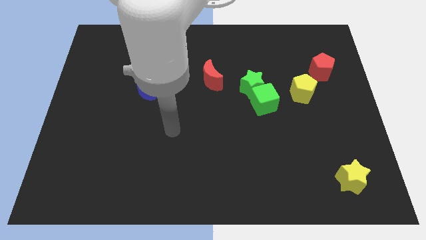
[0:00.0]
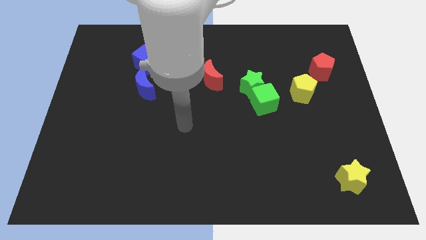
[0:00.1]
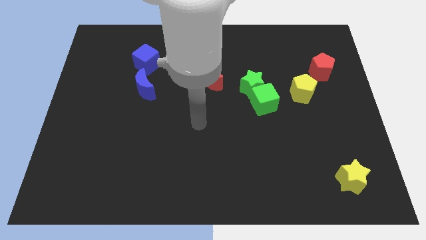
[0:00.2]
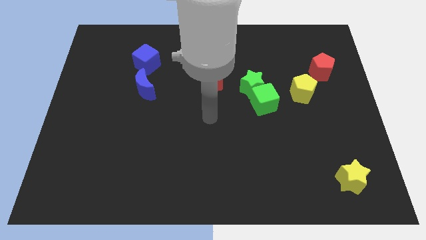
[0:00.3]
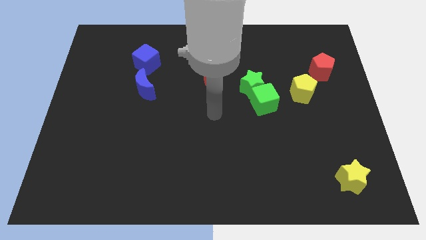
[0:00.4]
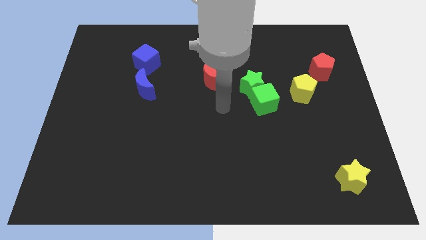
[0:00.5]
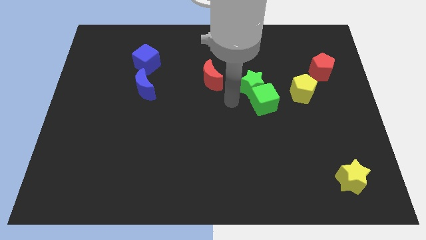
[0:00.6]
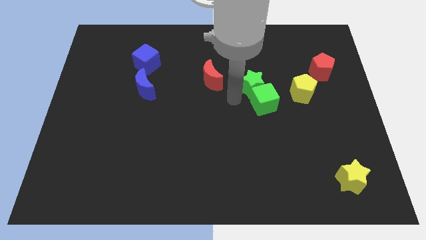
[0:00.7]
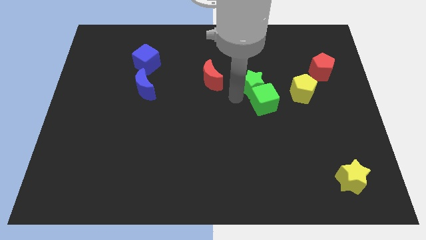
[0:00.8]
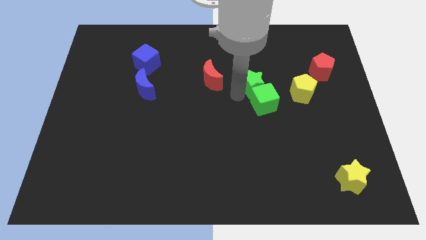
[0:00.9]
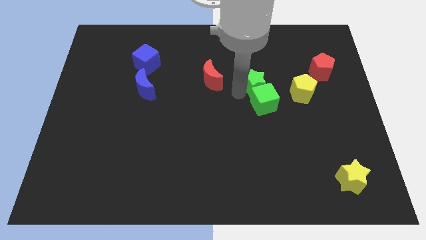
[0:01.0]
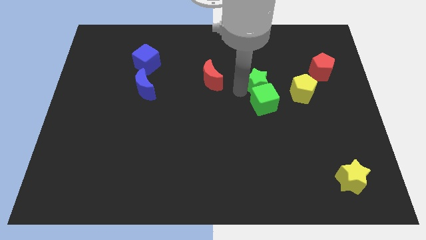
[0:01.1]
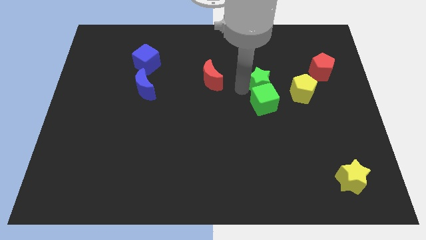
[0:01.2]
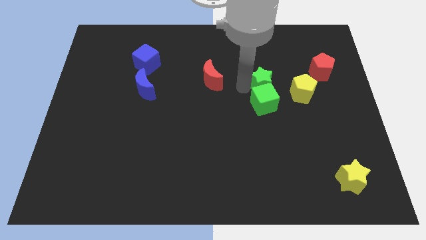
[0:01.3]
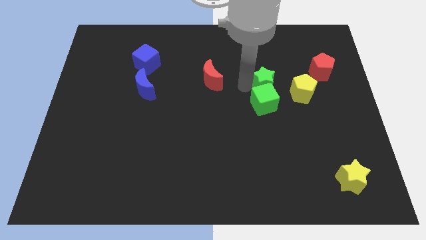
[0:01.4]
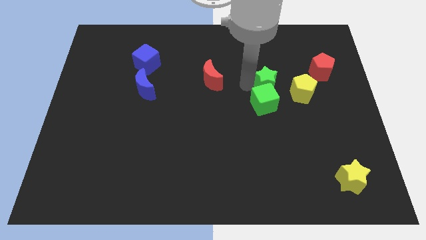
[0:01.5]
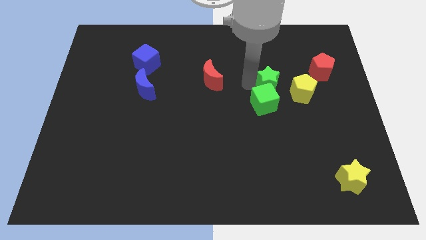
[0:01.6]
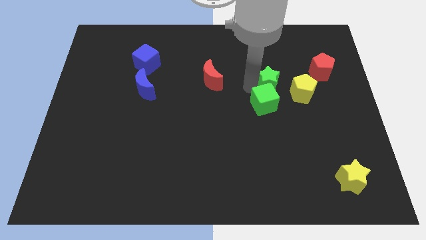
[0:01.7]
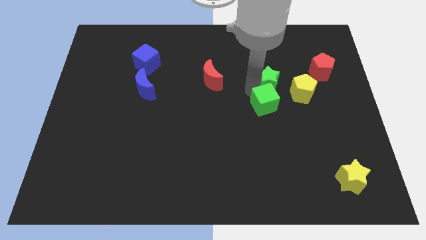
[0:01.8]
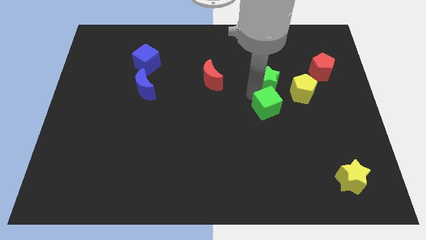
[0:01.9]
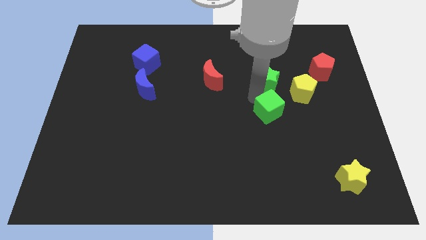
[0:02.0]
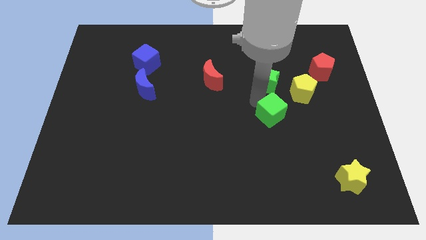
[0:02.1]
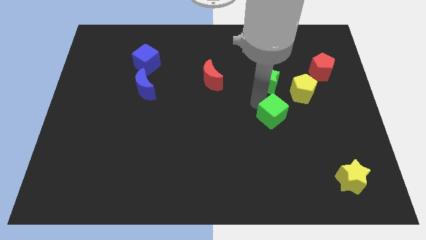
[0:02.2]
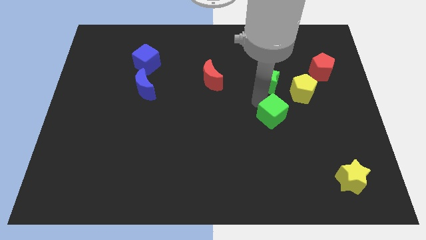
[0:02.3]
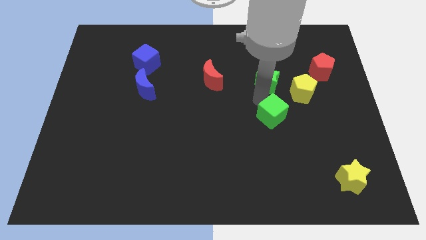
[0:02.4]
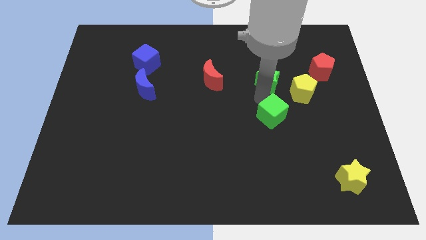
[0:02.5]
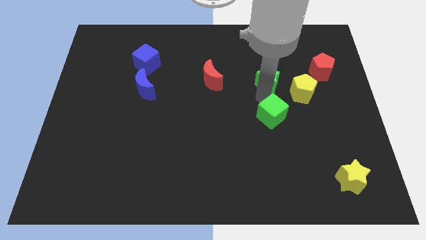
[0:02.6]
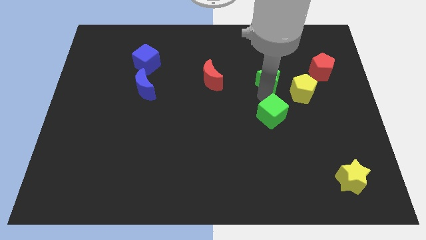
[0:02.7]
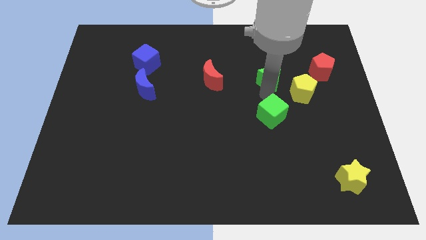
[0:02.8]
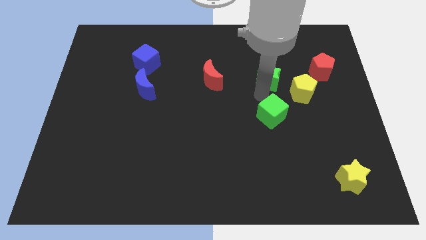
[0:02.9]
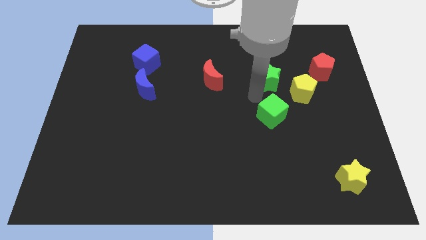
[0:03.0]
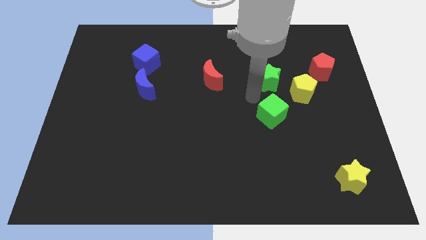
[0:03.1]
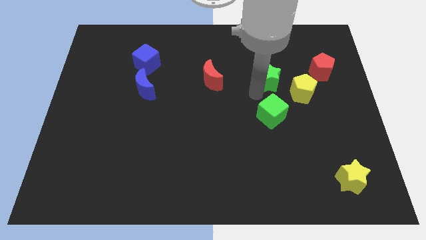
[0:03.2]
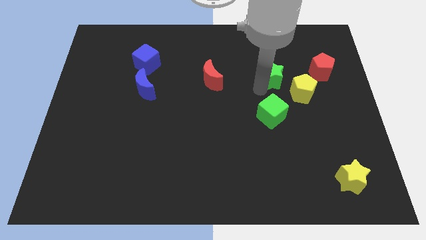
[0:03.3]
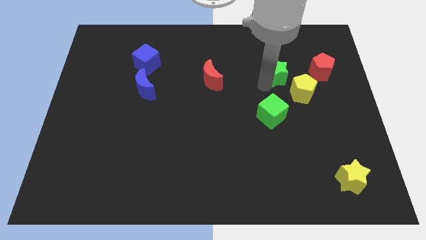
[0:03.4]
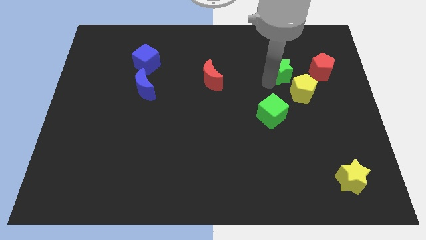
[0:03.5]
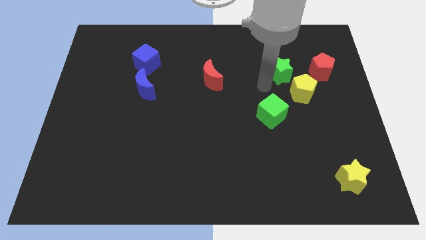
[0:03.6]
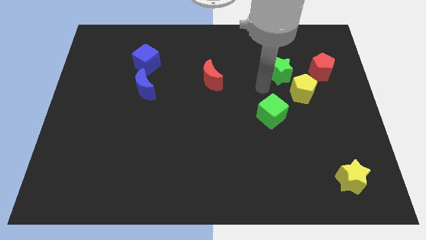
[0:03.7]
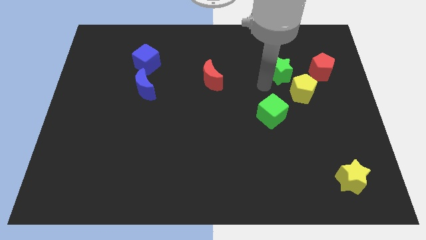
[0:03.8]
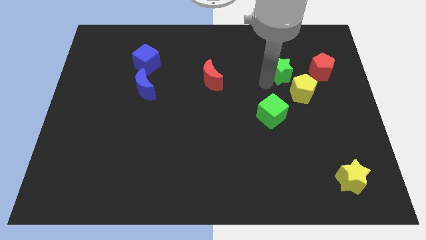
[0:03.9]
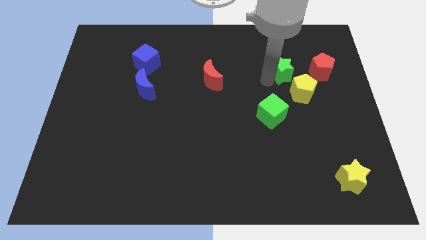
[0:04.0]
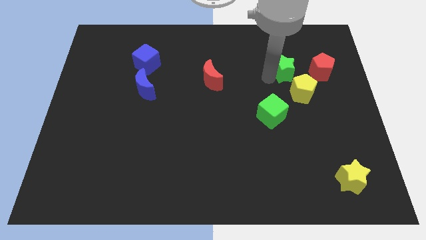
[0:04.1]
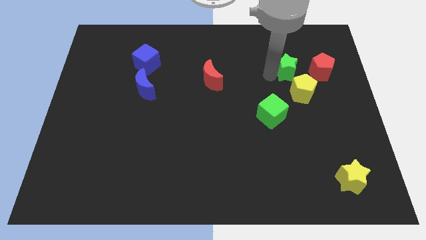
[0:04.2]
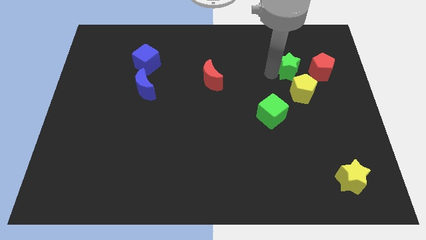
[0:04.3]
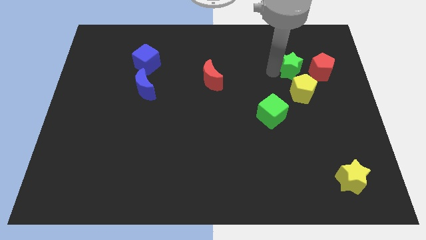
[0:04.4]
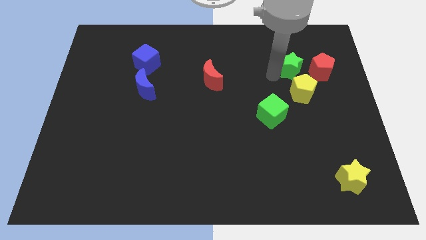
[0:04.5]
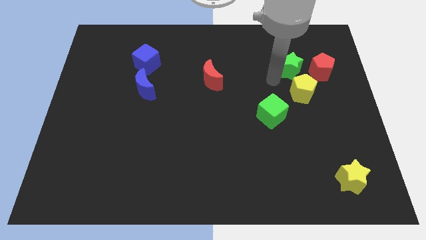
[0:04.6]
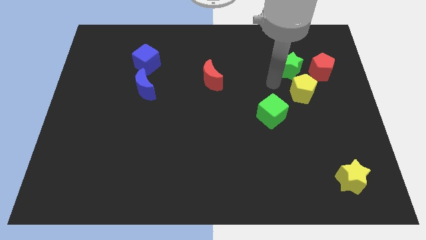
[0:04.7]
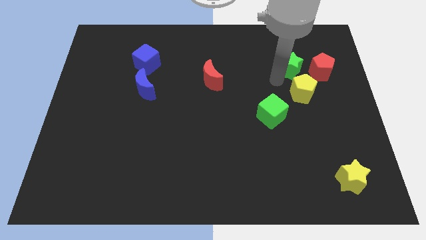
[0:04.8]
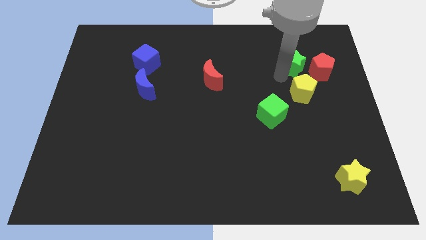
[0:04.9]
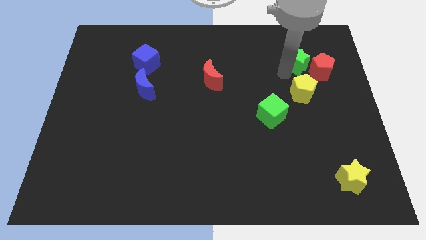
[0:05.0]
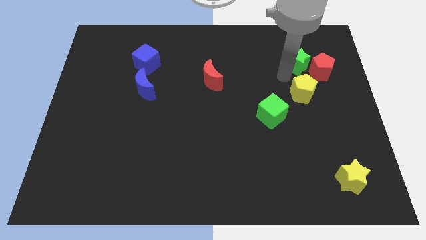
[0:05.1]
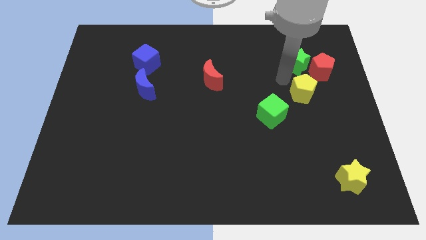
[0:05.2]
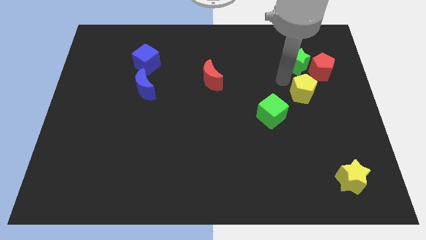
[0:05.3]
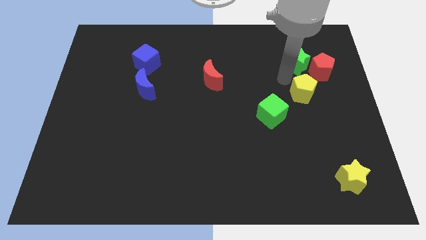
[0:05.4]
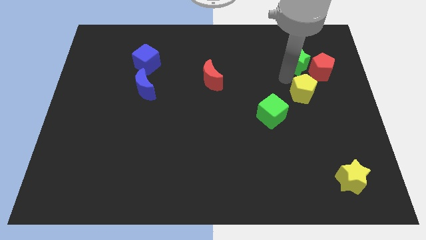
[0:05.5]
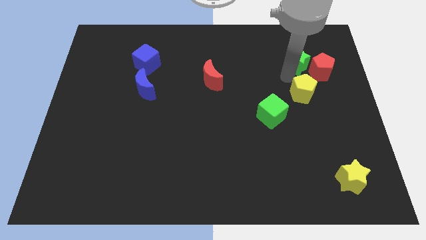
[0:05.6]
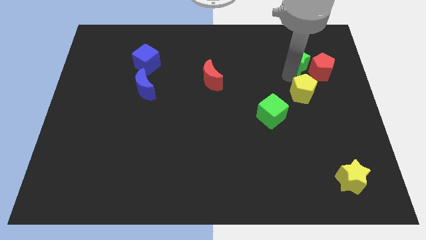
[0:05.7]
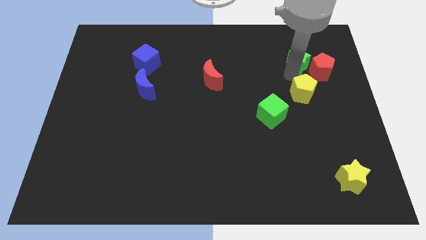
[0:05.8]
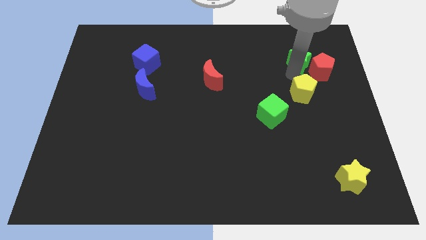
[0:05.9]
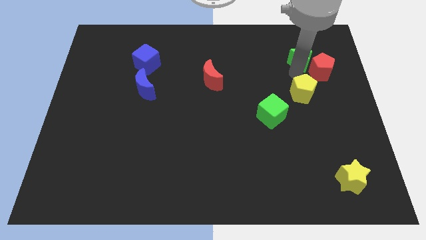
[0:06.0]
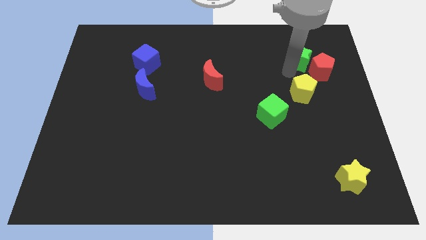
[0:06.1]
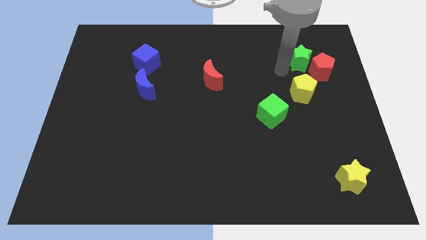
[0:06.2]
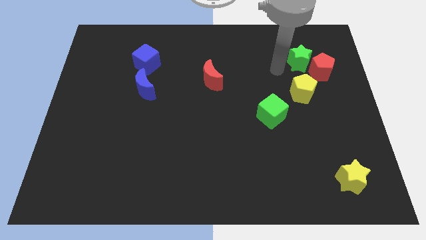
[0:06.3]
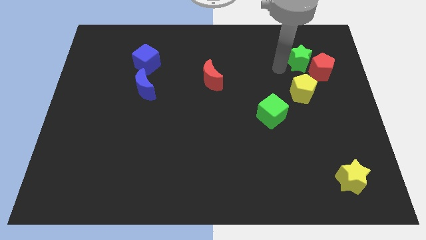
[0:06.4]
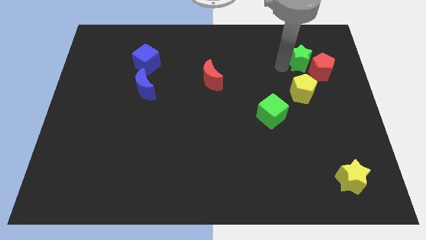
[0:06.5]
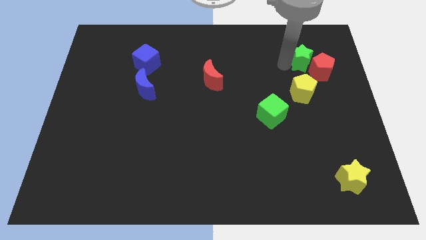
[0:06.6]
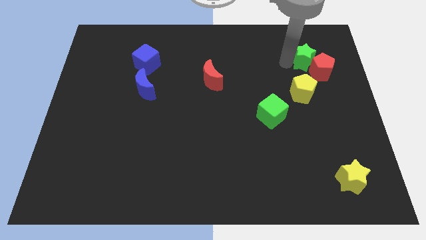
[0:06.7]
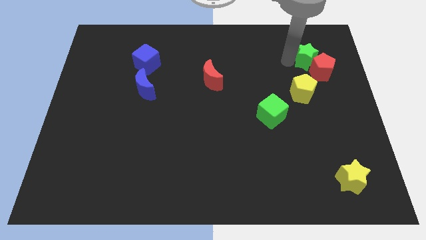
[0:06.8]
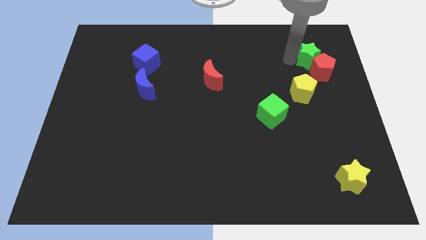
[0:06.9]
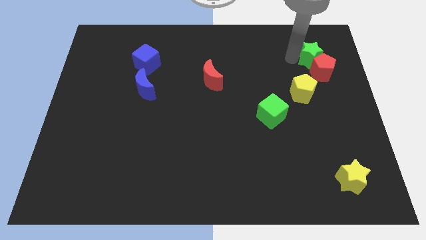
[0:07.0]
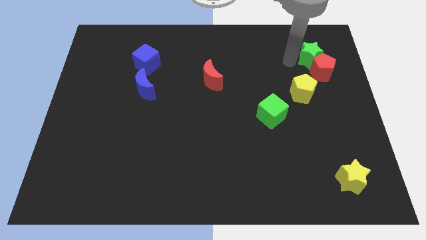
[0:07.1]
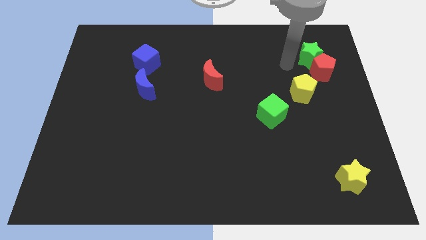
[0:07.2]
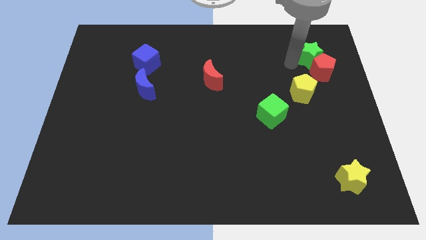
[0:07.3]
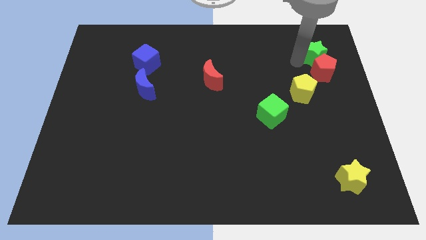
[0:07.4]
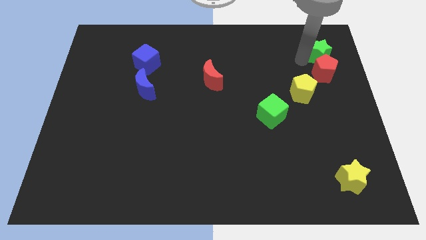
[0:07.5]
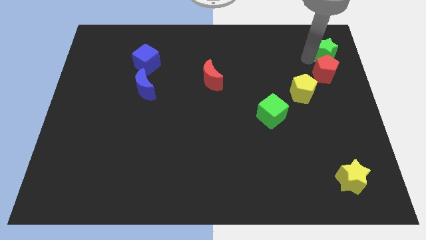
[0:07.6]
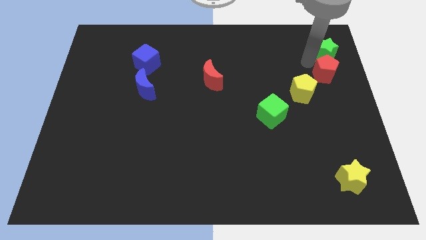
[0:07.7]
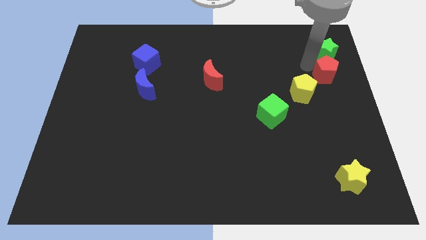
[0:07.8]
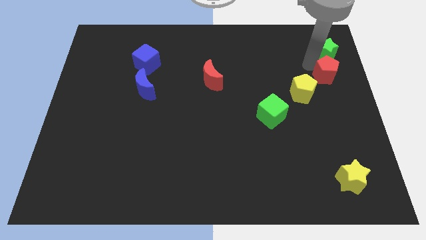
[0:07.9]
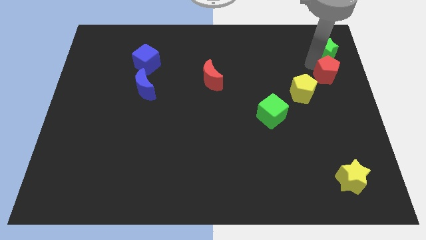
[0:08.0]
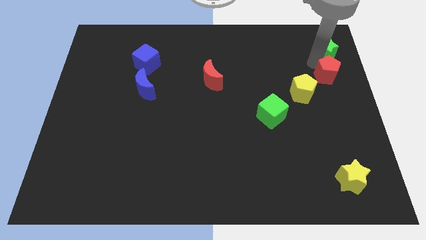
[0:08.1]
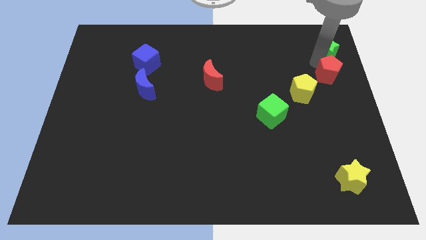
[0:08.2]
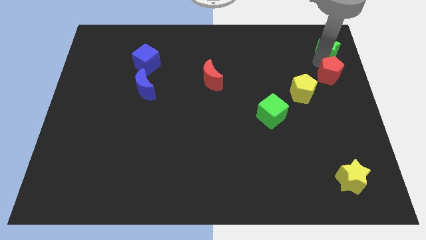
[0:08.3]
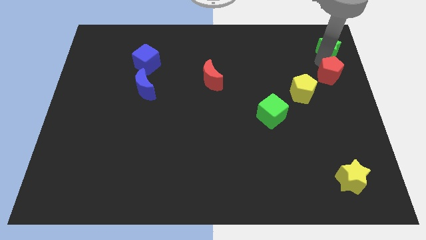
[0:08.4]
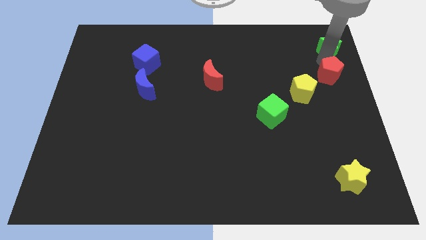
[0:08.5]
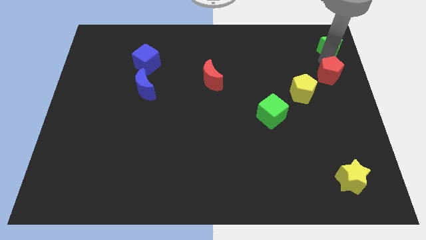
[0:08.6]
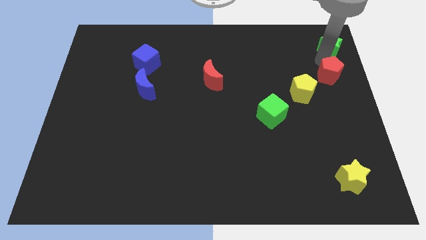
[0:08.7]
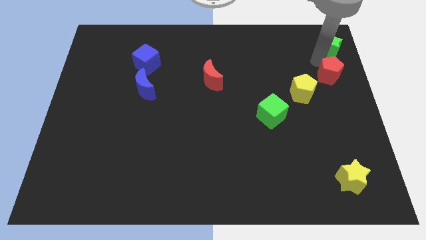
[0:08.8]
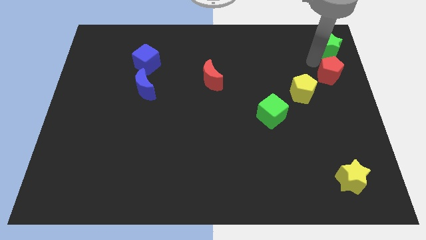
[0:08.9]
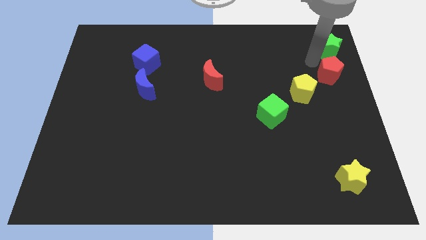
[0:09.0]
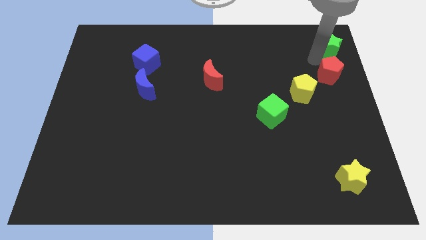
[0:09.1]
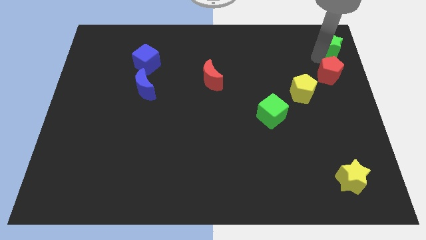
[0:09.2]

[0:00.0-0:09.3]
push the green star to the top right of the board
